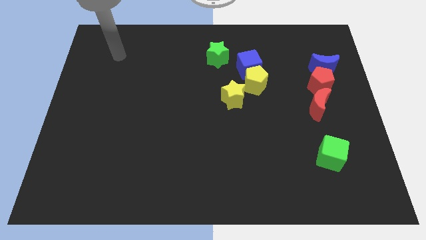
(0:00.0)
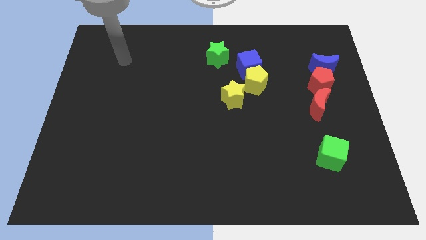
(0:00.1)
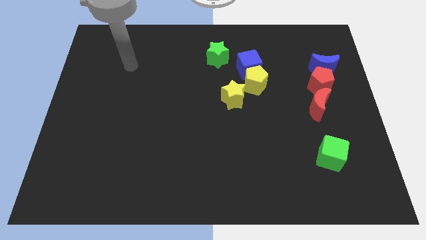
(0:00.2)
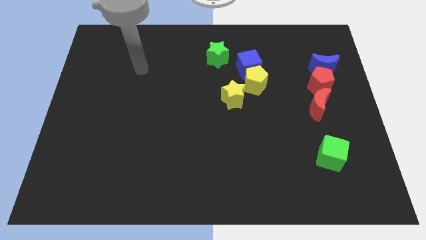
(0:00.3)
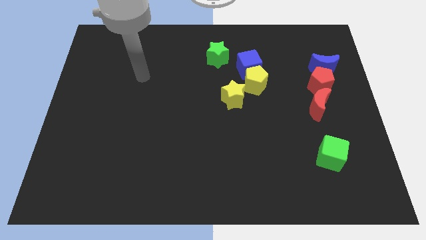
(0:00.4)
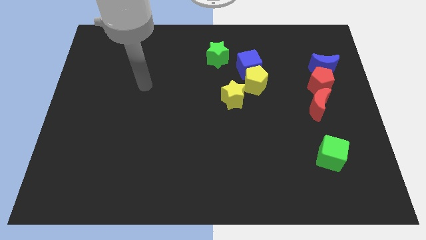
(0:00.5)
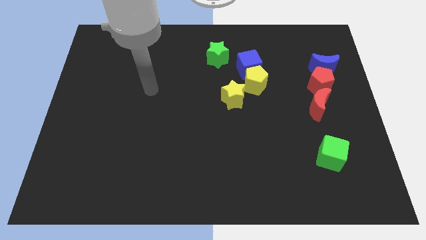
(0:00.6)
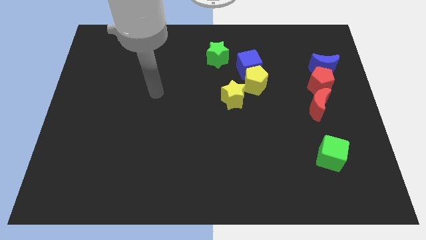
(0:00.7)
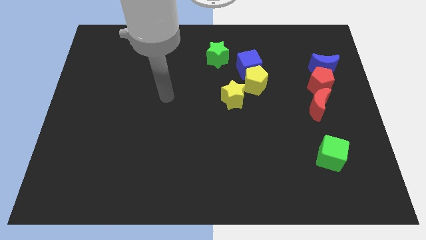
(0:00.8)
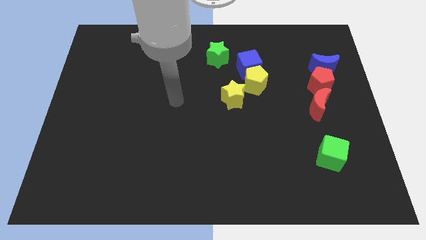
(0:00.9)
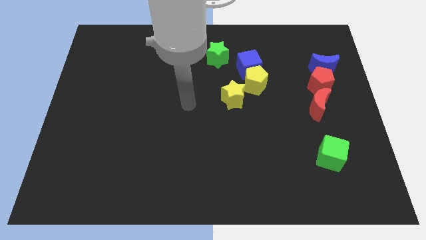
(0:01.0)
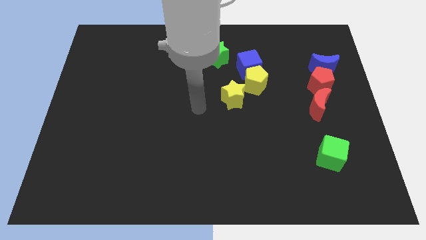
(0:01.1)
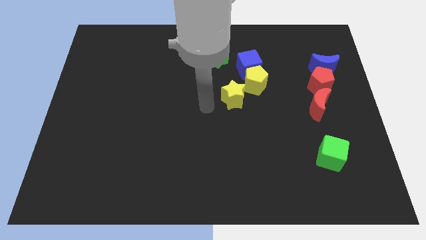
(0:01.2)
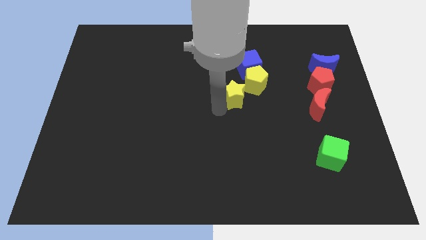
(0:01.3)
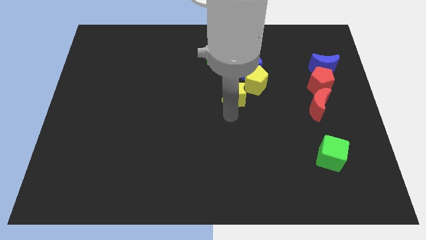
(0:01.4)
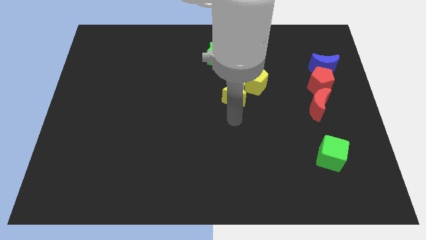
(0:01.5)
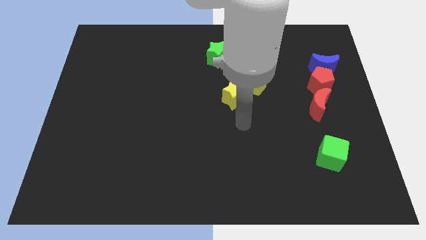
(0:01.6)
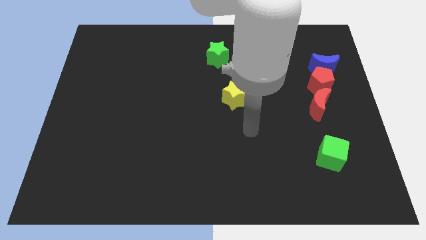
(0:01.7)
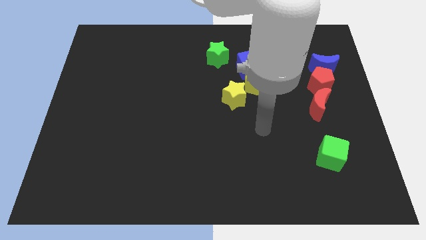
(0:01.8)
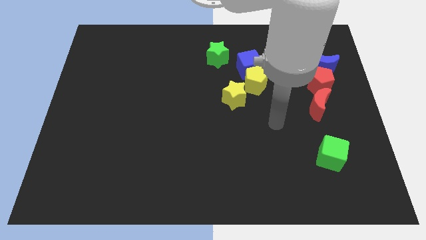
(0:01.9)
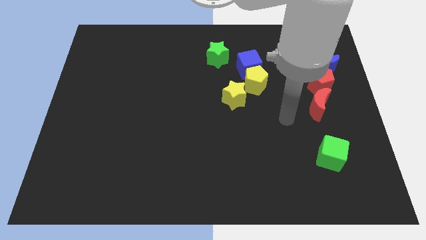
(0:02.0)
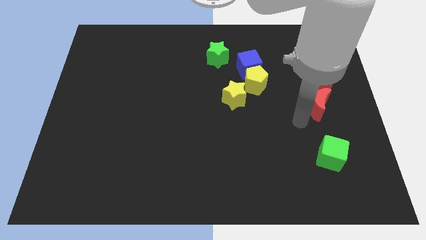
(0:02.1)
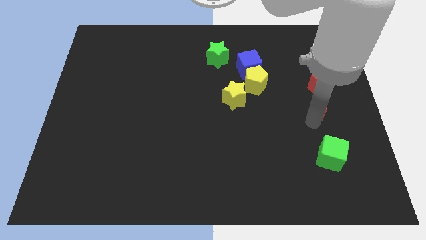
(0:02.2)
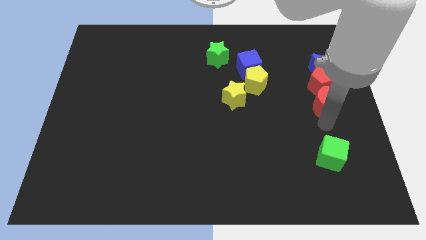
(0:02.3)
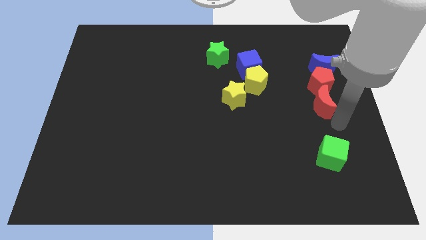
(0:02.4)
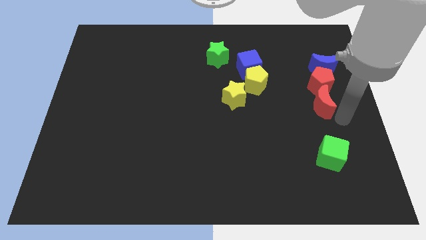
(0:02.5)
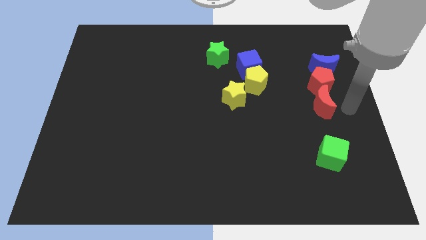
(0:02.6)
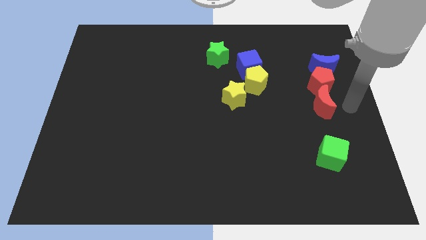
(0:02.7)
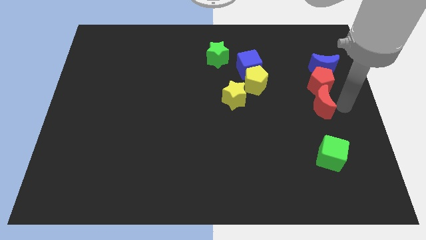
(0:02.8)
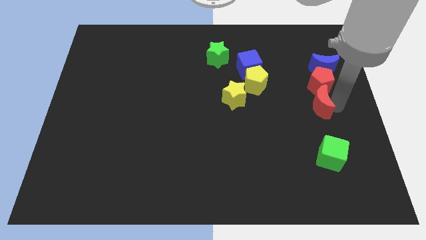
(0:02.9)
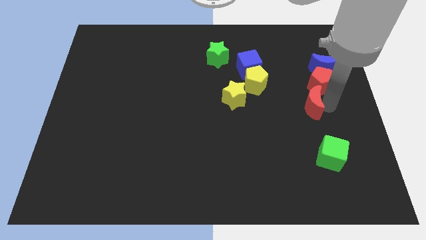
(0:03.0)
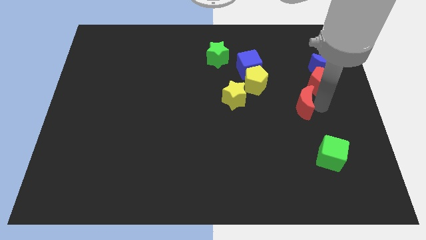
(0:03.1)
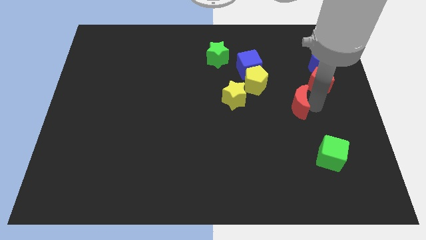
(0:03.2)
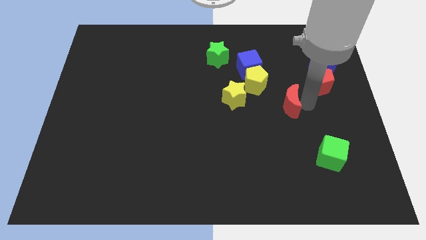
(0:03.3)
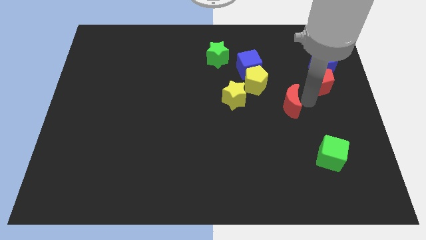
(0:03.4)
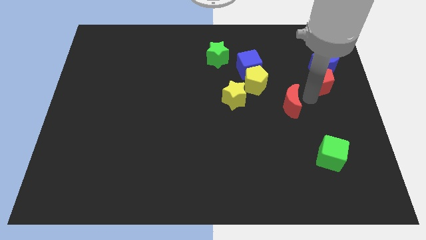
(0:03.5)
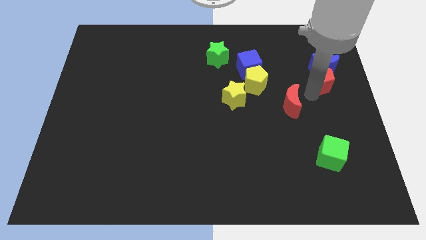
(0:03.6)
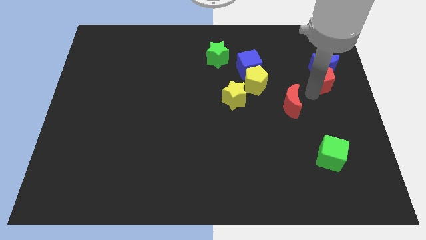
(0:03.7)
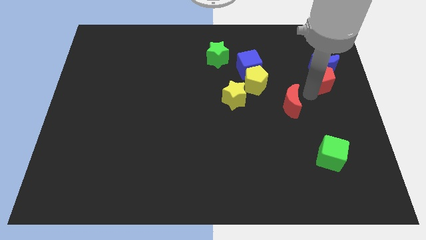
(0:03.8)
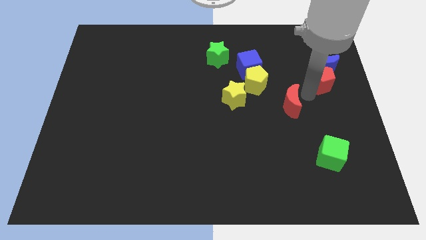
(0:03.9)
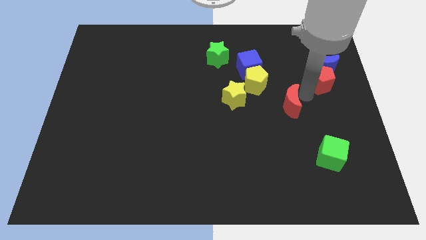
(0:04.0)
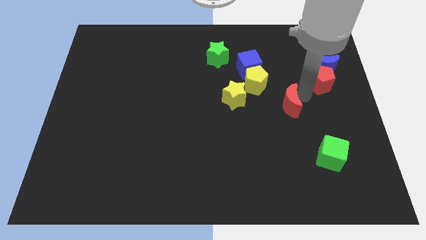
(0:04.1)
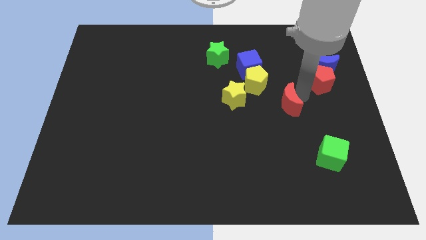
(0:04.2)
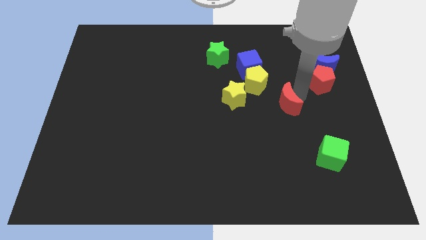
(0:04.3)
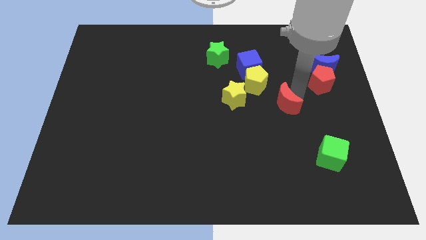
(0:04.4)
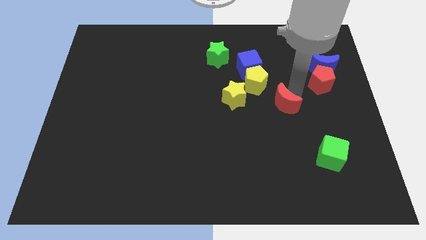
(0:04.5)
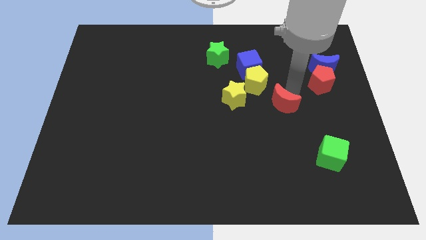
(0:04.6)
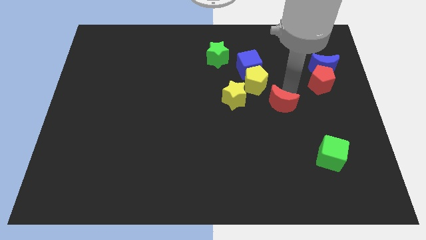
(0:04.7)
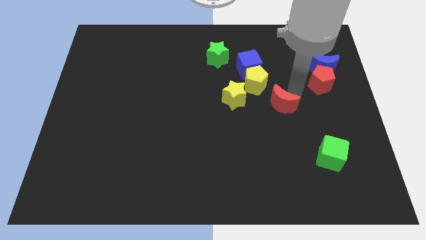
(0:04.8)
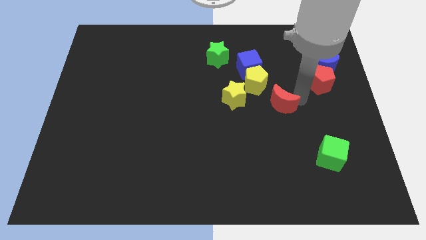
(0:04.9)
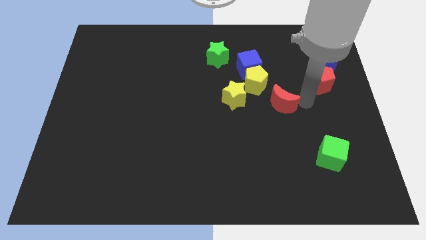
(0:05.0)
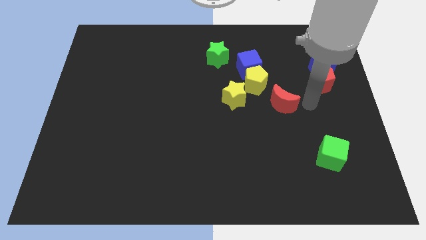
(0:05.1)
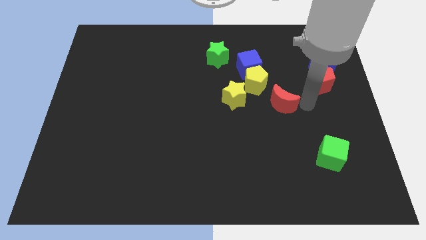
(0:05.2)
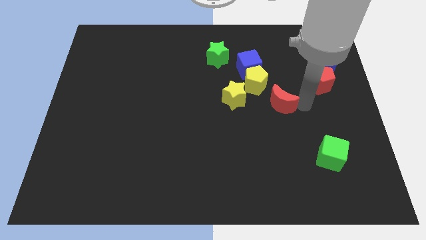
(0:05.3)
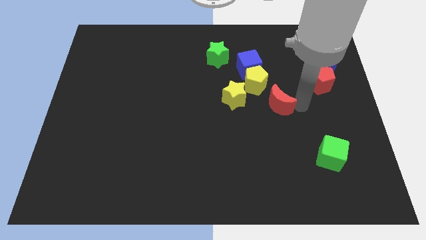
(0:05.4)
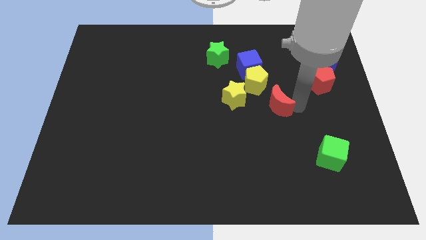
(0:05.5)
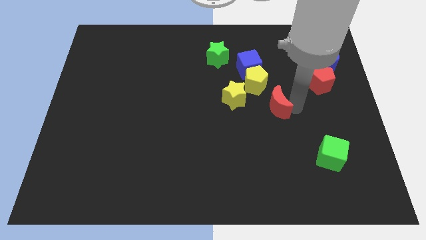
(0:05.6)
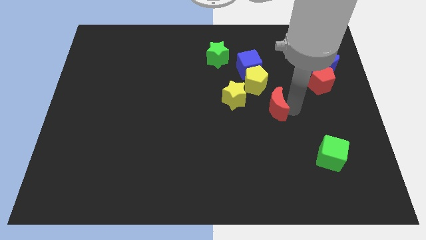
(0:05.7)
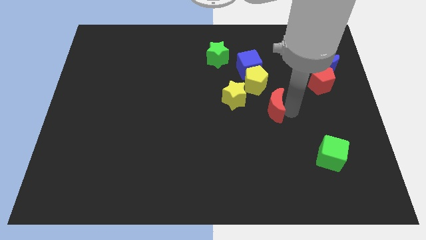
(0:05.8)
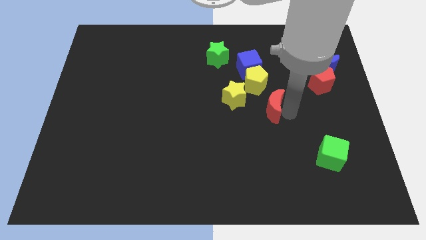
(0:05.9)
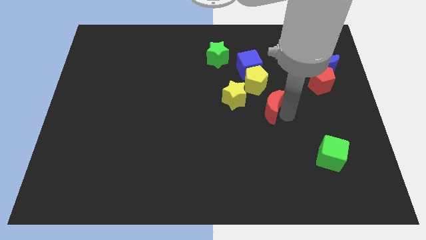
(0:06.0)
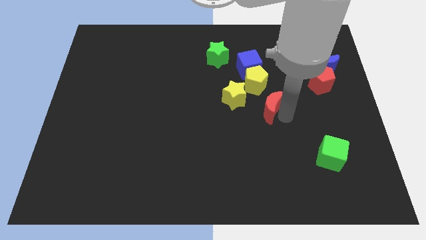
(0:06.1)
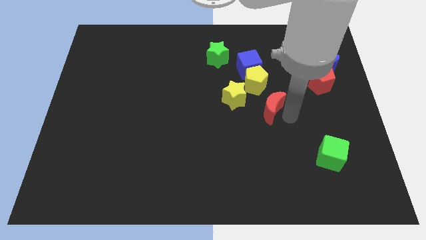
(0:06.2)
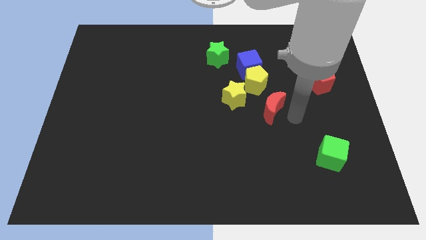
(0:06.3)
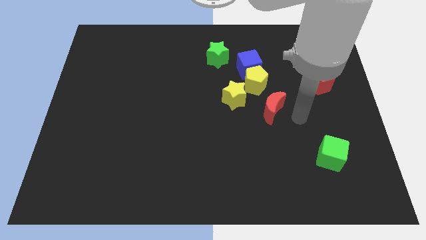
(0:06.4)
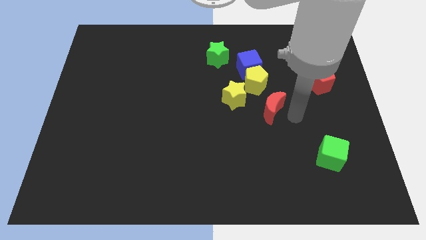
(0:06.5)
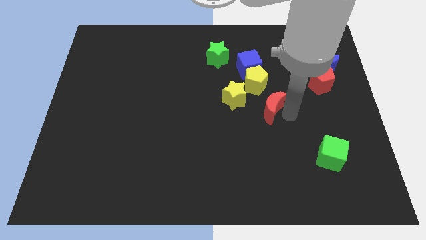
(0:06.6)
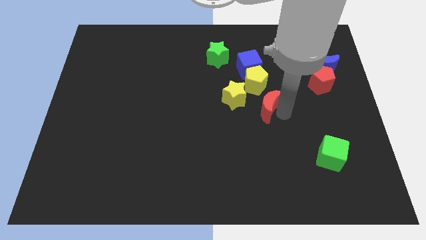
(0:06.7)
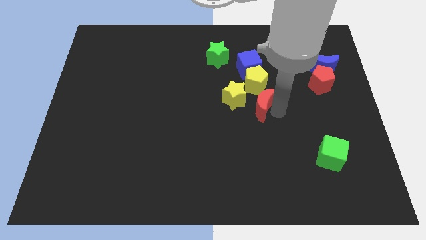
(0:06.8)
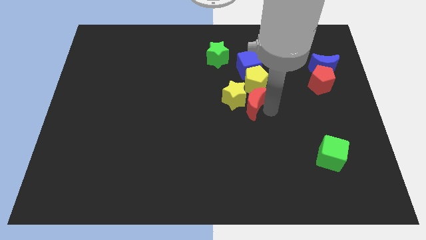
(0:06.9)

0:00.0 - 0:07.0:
put the red moon close to the yellow star
